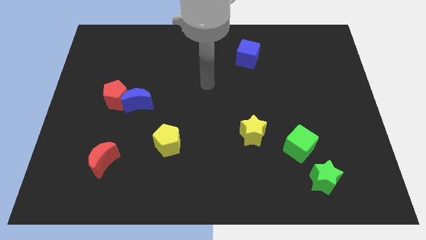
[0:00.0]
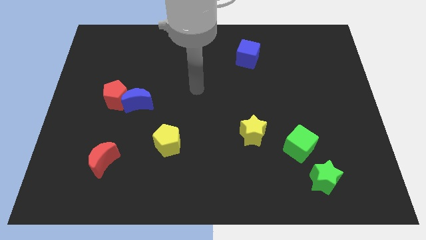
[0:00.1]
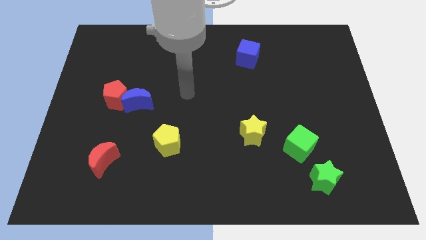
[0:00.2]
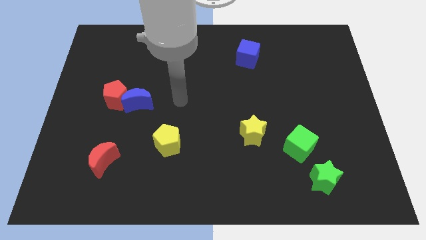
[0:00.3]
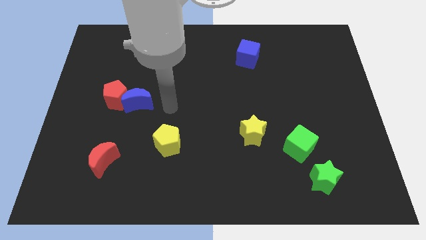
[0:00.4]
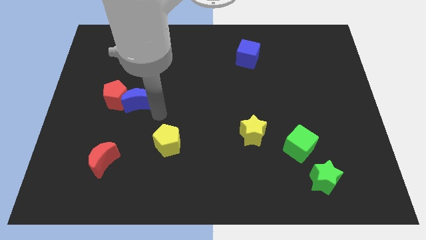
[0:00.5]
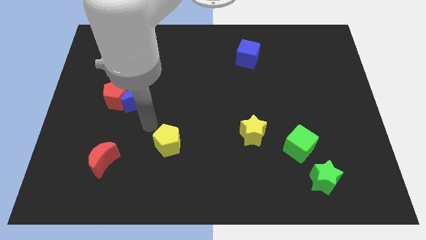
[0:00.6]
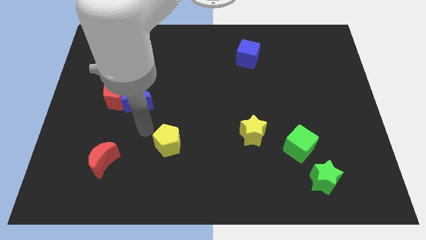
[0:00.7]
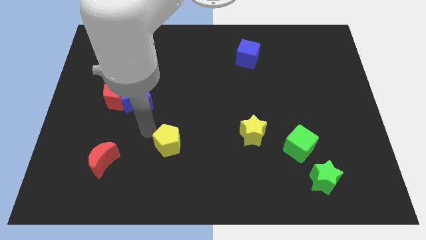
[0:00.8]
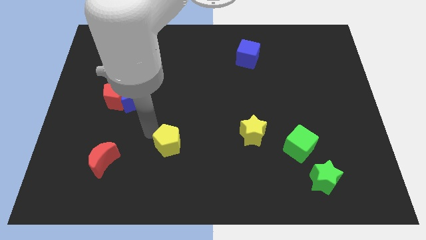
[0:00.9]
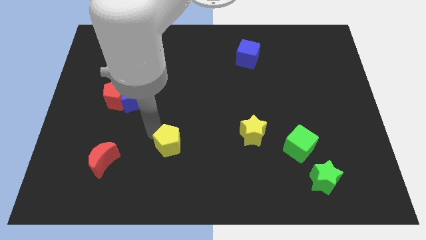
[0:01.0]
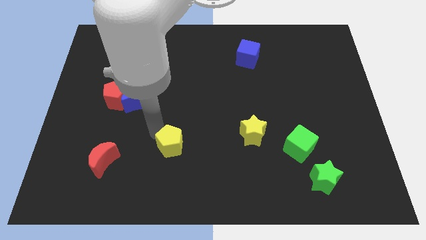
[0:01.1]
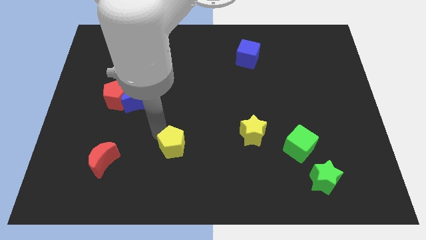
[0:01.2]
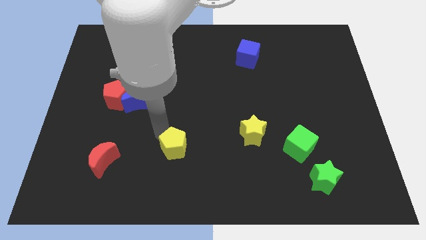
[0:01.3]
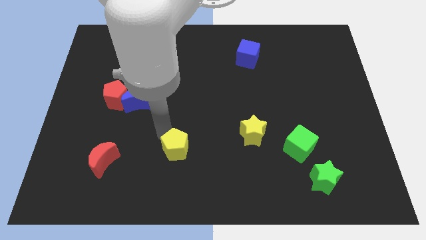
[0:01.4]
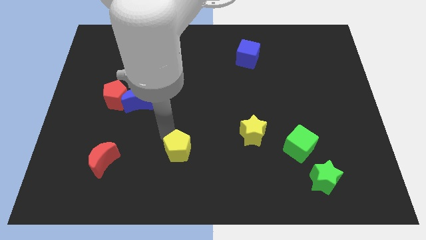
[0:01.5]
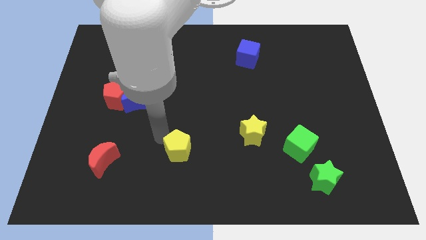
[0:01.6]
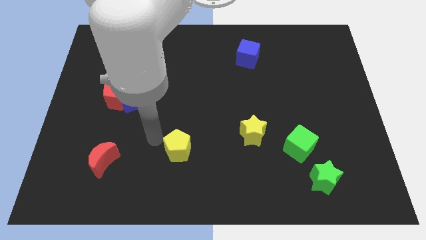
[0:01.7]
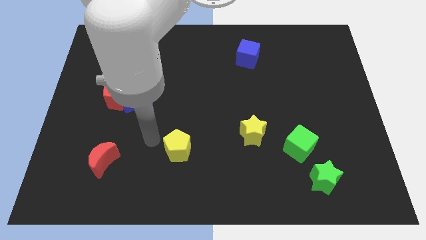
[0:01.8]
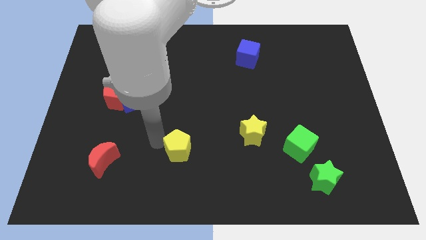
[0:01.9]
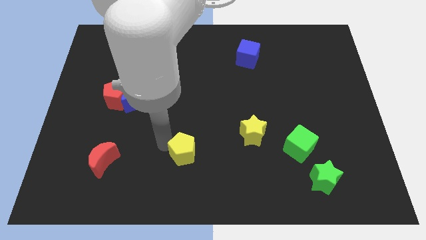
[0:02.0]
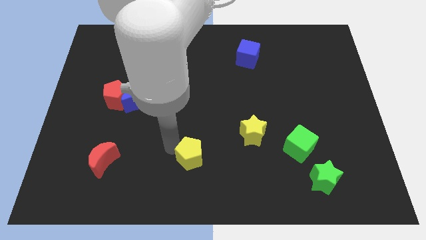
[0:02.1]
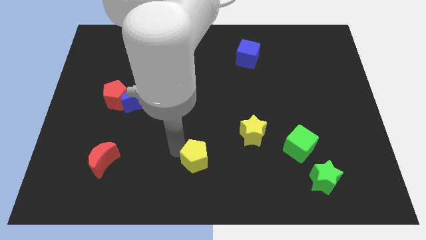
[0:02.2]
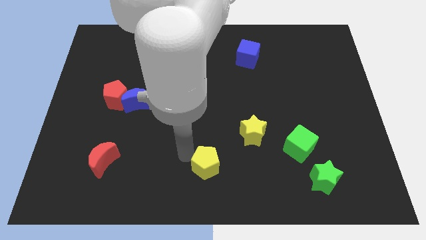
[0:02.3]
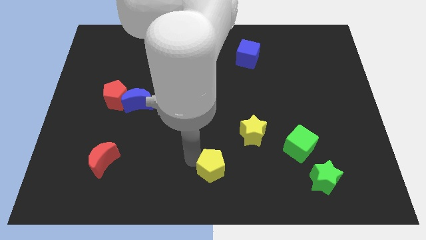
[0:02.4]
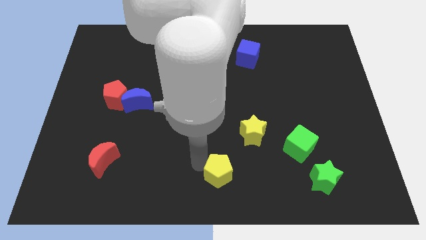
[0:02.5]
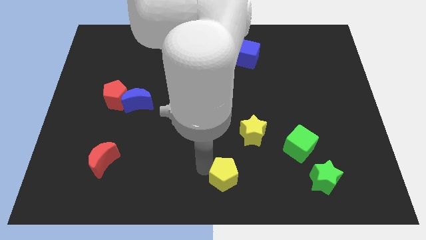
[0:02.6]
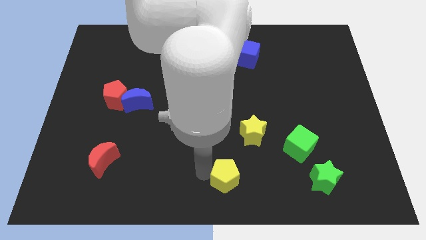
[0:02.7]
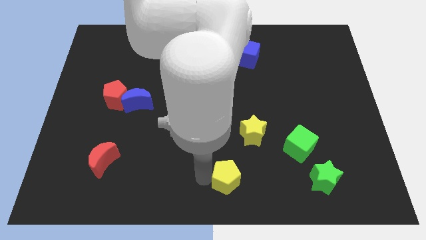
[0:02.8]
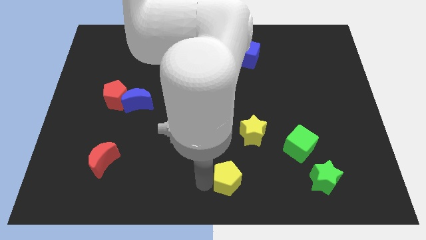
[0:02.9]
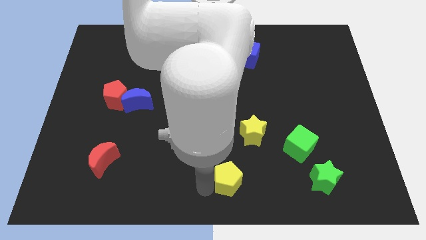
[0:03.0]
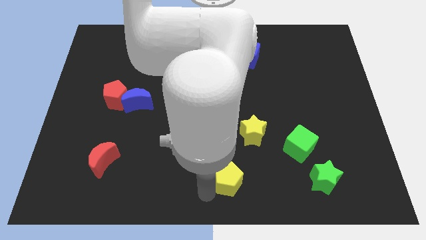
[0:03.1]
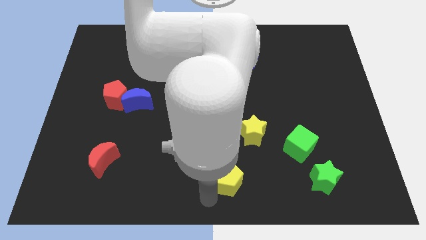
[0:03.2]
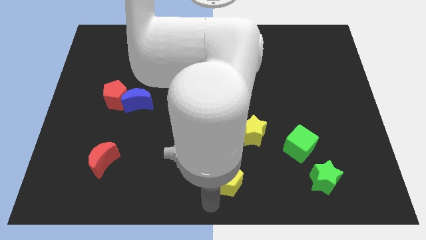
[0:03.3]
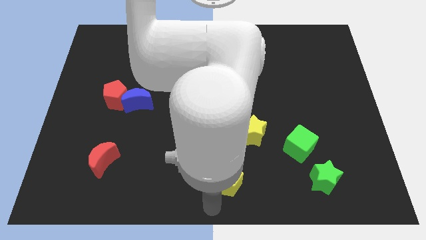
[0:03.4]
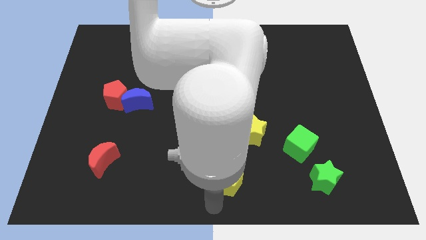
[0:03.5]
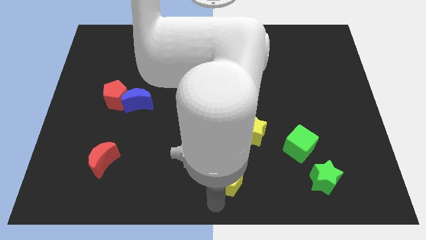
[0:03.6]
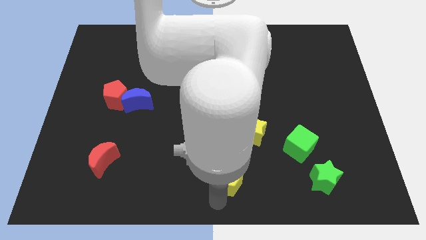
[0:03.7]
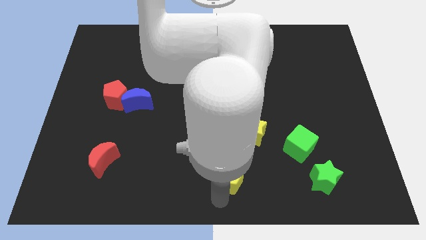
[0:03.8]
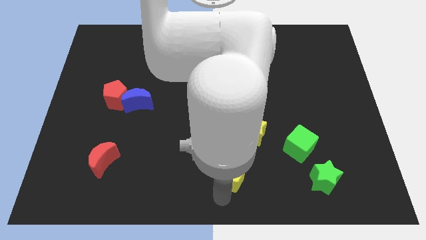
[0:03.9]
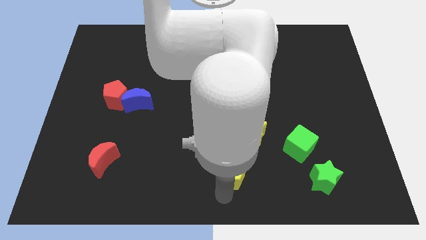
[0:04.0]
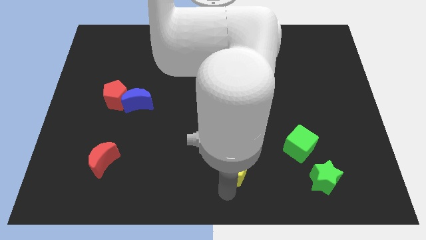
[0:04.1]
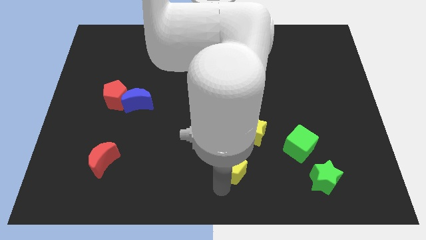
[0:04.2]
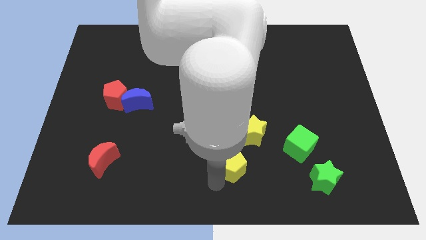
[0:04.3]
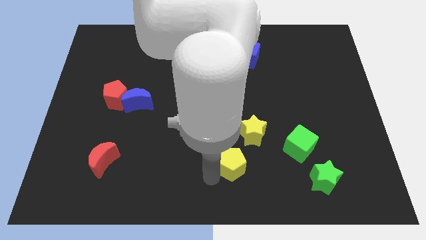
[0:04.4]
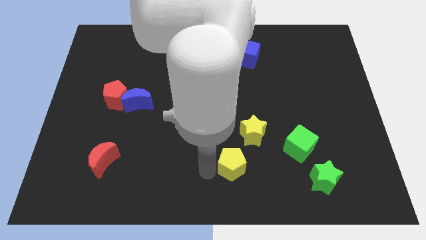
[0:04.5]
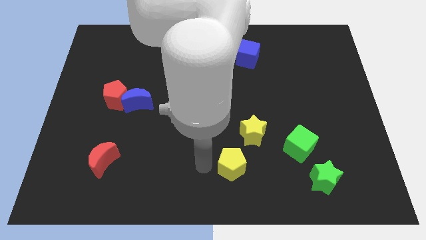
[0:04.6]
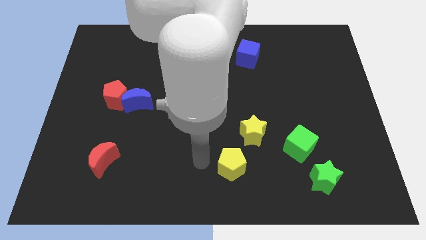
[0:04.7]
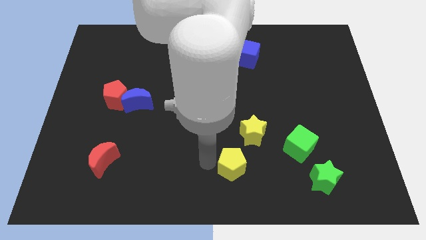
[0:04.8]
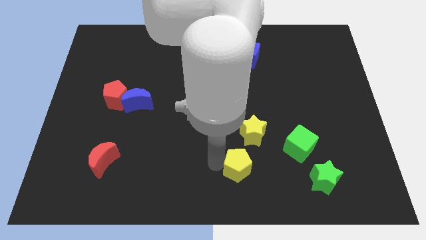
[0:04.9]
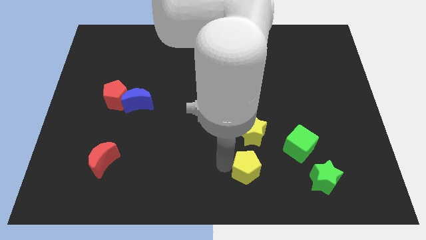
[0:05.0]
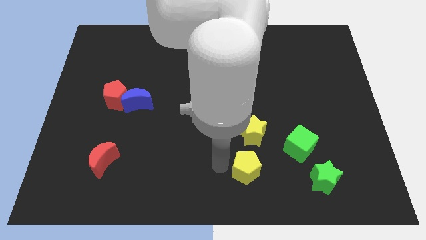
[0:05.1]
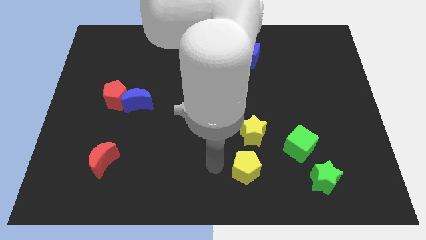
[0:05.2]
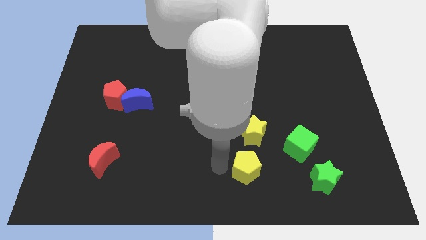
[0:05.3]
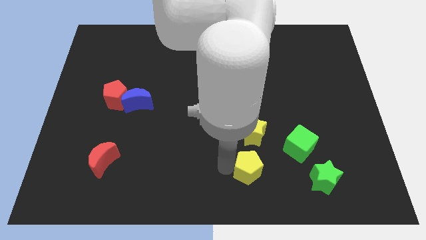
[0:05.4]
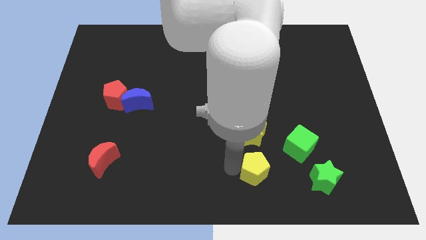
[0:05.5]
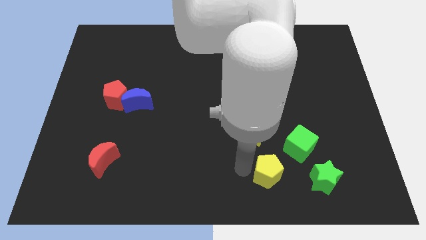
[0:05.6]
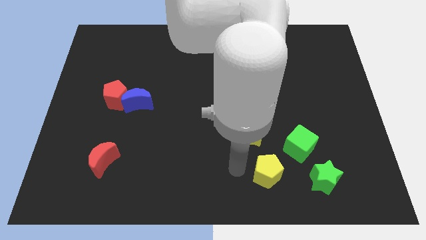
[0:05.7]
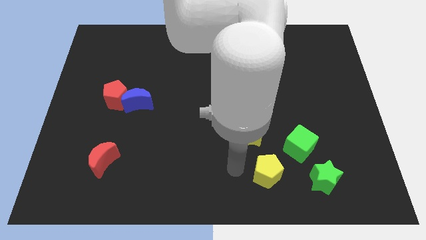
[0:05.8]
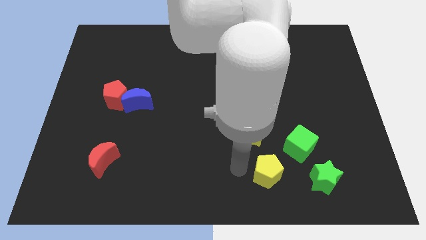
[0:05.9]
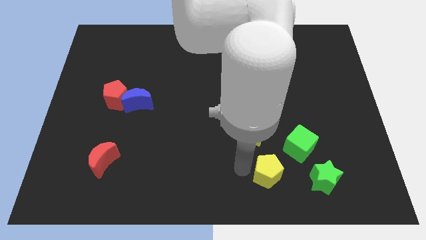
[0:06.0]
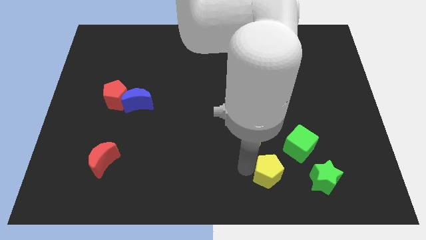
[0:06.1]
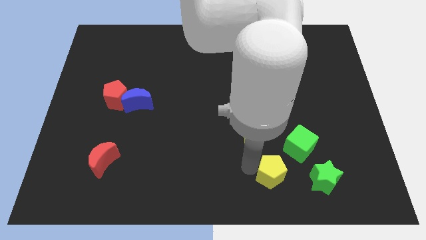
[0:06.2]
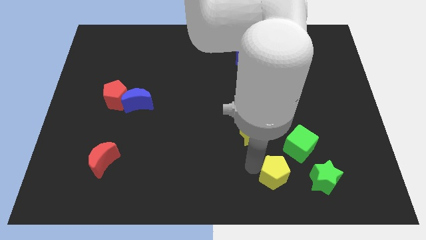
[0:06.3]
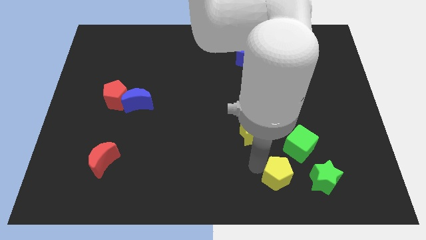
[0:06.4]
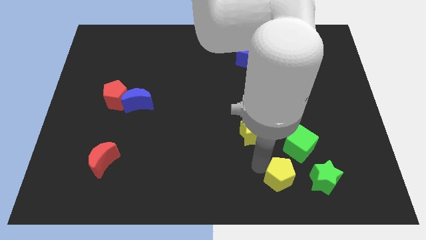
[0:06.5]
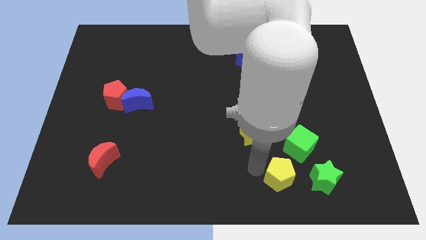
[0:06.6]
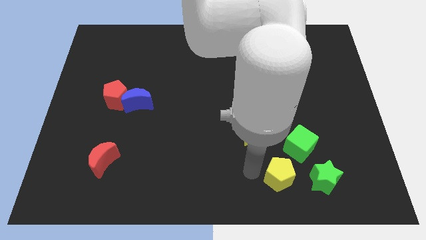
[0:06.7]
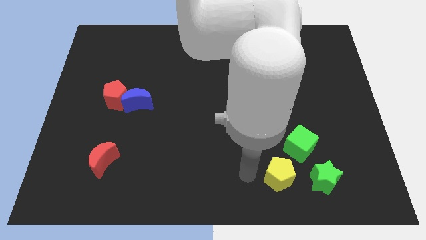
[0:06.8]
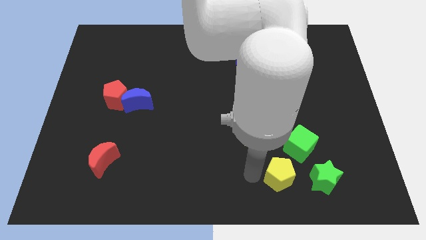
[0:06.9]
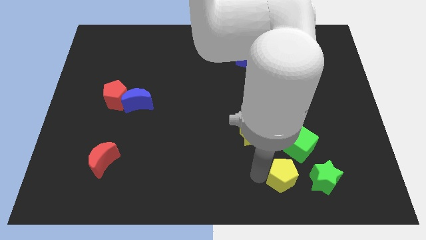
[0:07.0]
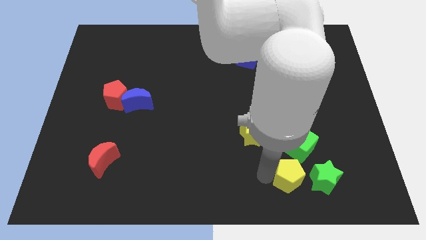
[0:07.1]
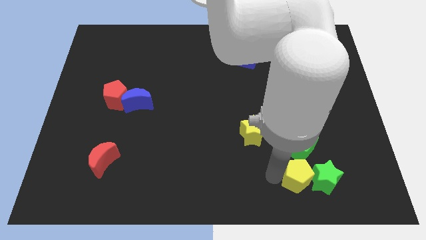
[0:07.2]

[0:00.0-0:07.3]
slide the yellow pentagon to the green star
